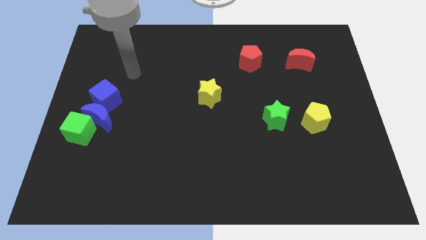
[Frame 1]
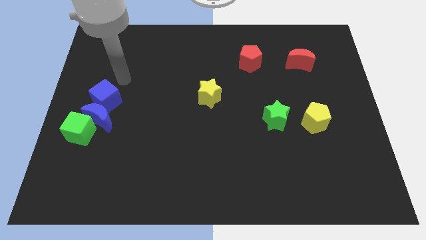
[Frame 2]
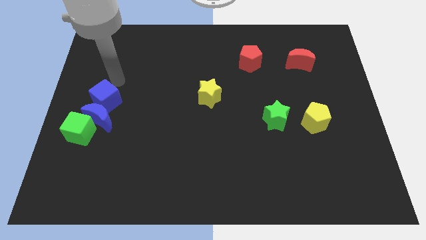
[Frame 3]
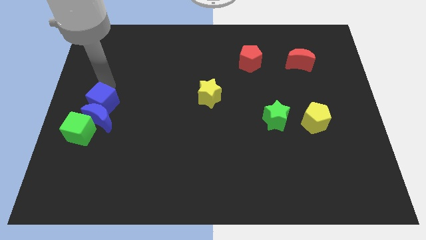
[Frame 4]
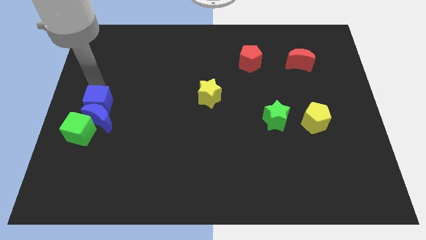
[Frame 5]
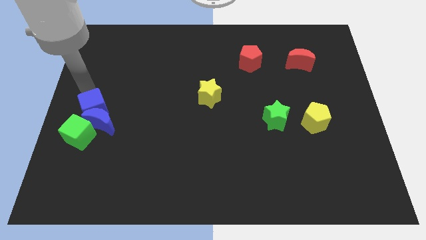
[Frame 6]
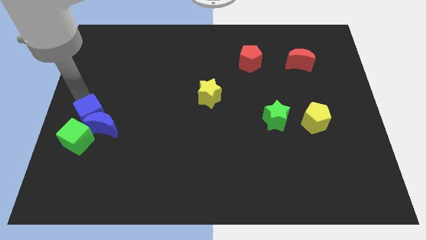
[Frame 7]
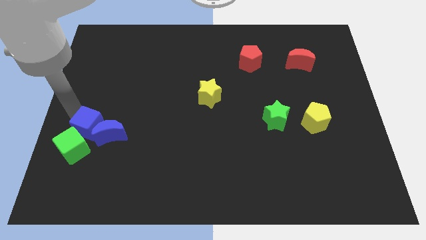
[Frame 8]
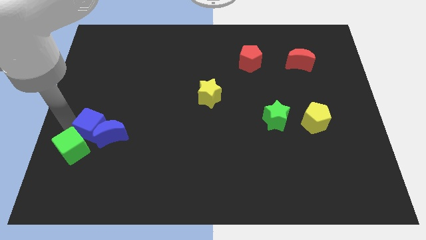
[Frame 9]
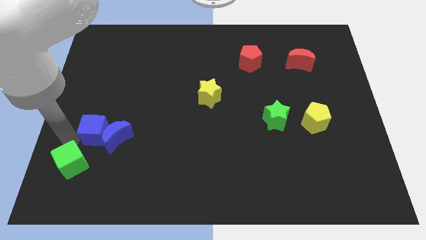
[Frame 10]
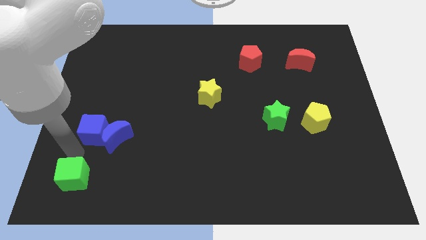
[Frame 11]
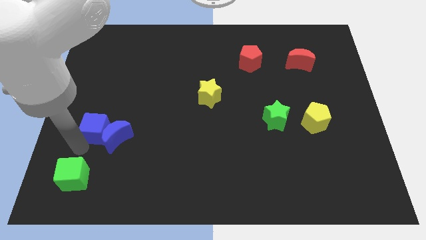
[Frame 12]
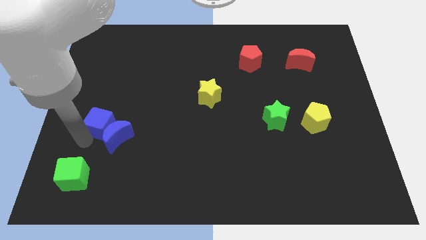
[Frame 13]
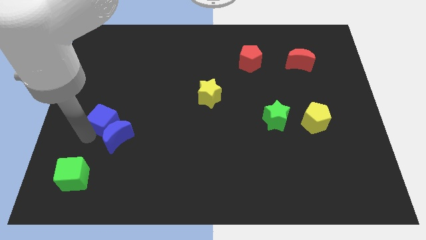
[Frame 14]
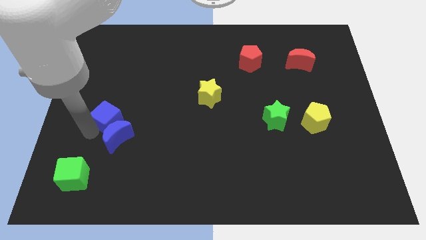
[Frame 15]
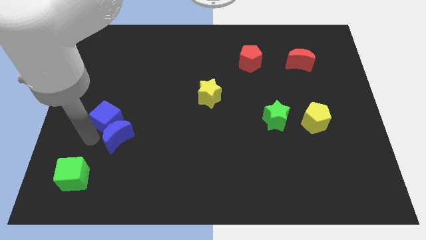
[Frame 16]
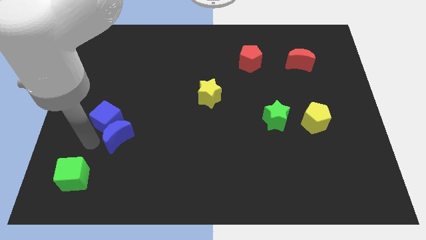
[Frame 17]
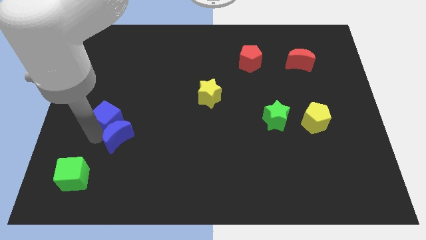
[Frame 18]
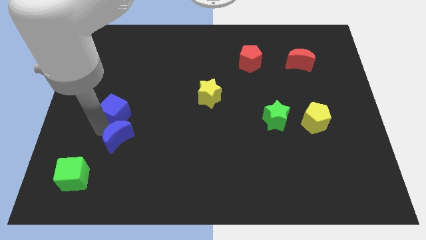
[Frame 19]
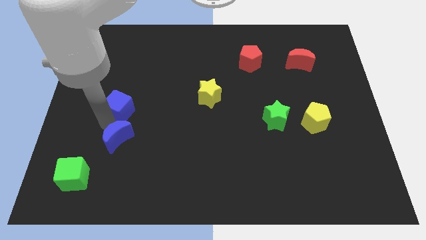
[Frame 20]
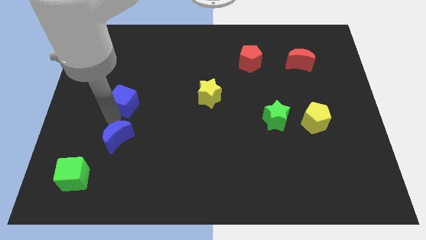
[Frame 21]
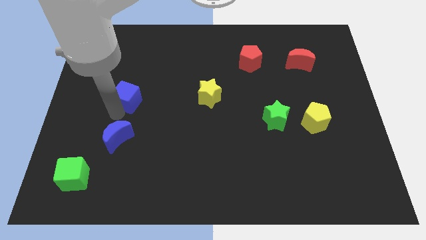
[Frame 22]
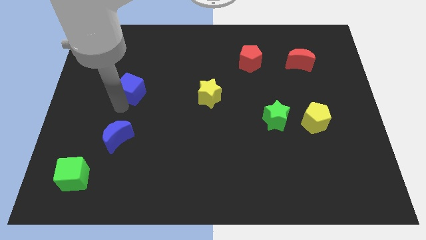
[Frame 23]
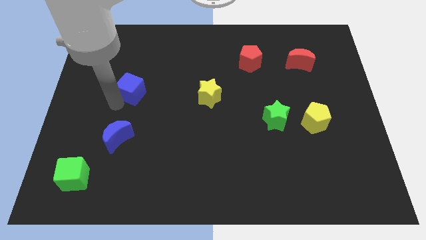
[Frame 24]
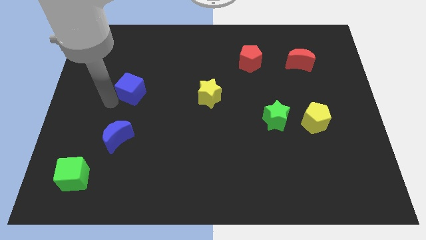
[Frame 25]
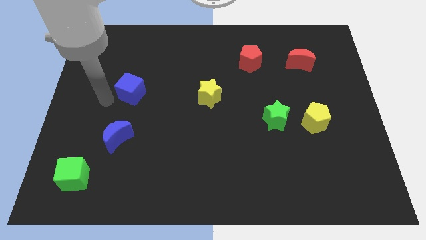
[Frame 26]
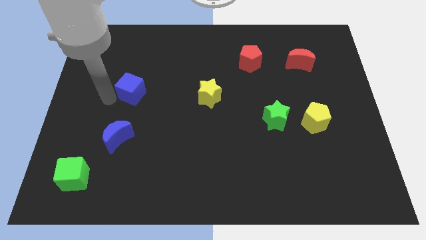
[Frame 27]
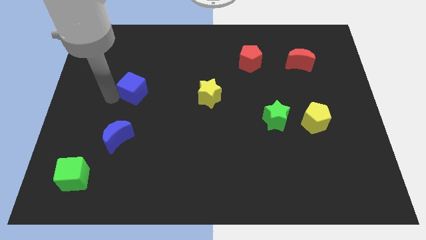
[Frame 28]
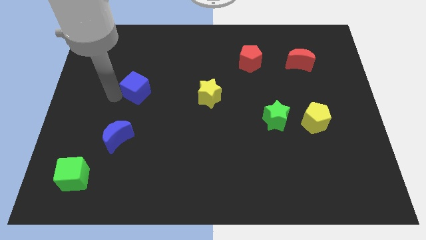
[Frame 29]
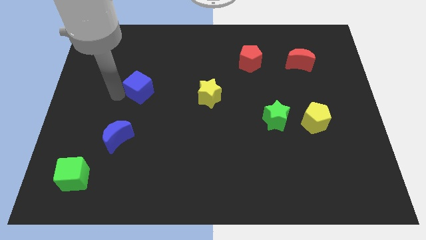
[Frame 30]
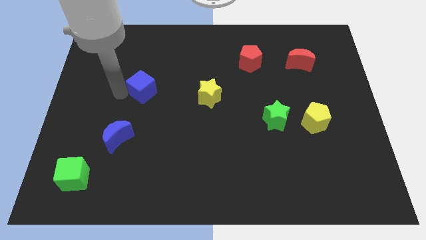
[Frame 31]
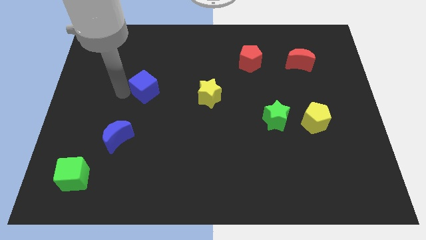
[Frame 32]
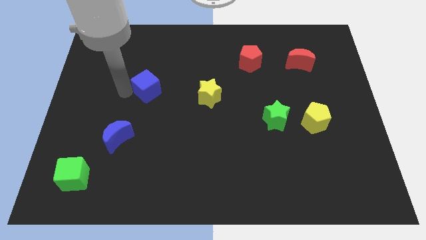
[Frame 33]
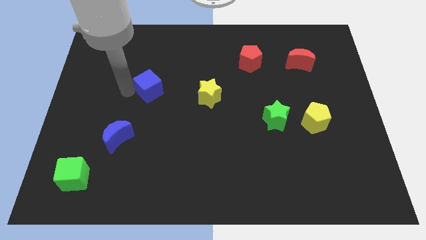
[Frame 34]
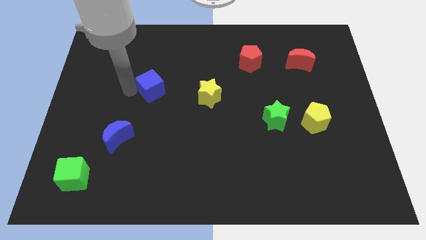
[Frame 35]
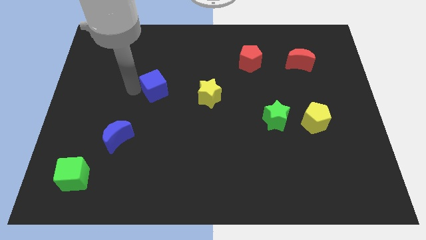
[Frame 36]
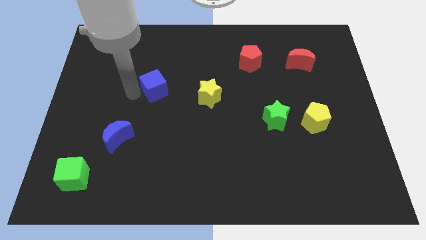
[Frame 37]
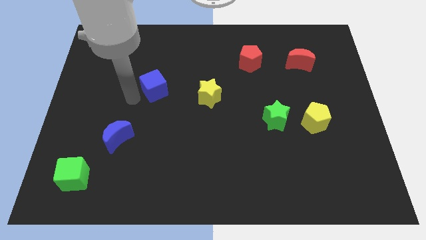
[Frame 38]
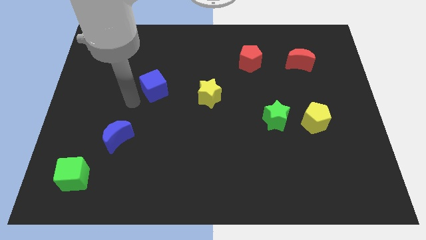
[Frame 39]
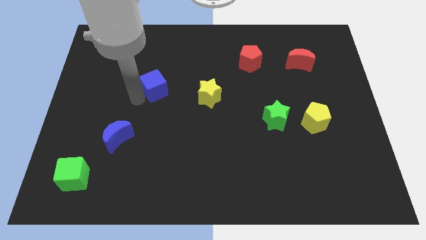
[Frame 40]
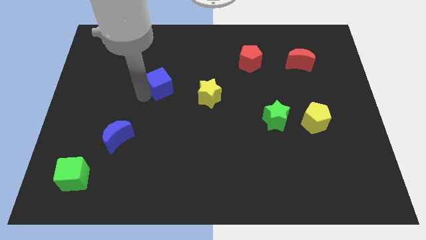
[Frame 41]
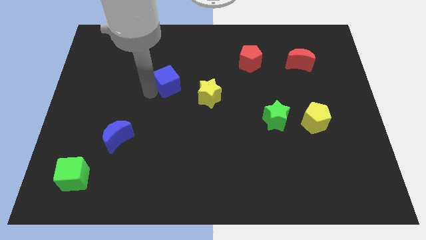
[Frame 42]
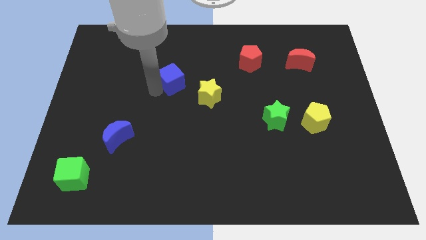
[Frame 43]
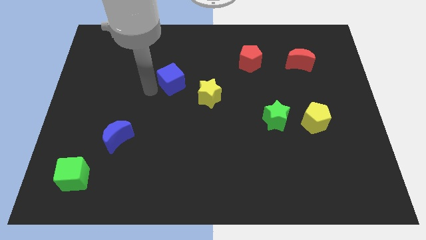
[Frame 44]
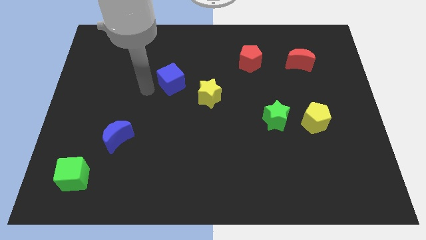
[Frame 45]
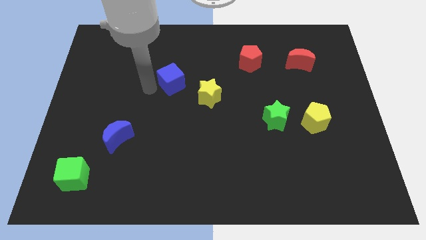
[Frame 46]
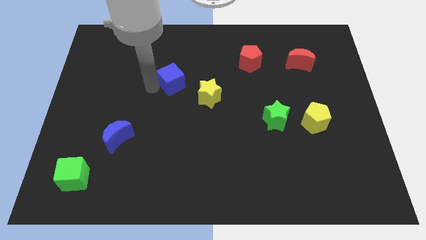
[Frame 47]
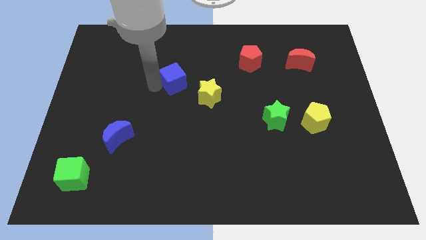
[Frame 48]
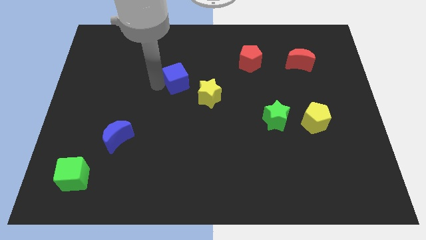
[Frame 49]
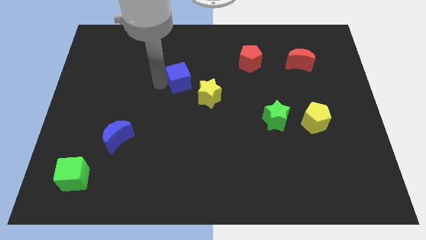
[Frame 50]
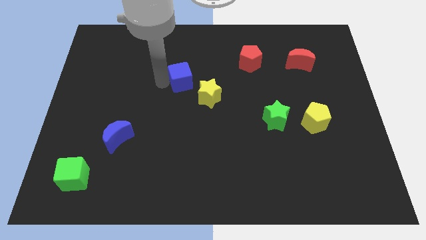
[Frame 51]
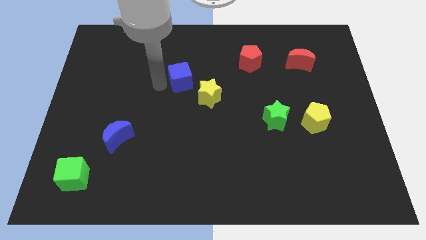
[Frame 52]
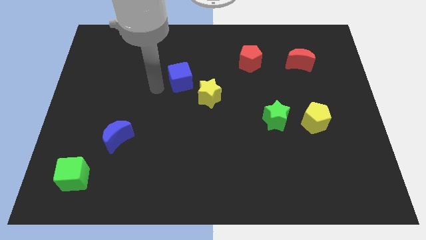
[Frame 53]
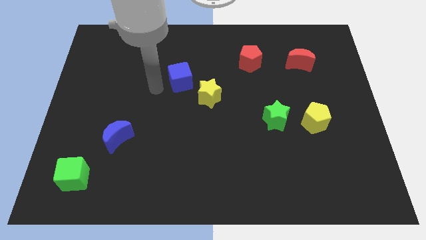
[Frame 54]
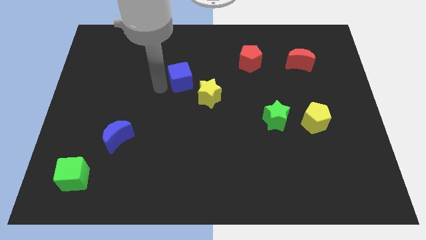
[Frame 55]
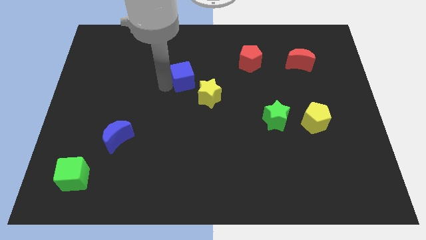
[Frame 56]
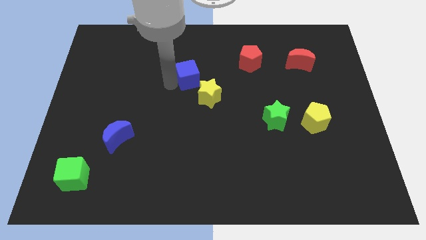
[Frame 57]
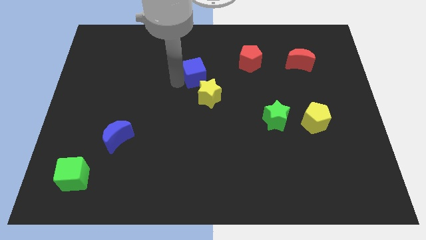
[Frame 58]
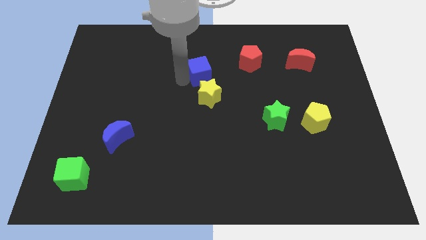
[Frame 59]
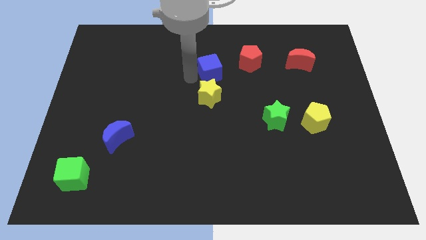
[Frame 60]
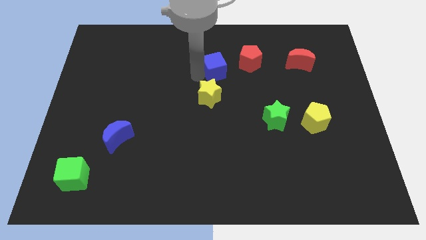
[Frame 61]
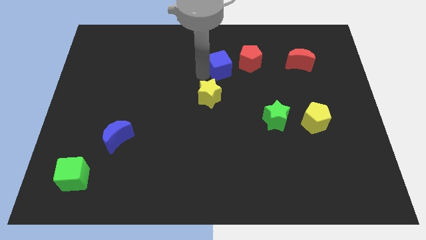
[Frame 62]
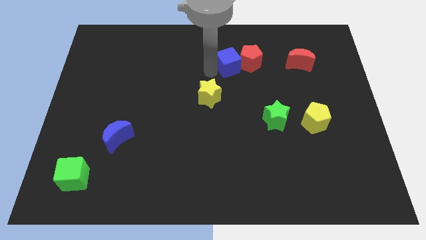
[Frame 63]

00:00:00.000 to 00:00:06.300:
put the blue cube next to the red pentagon

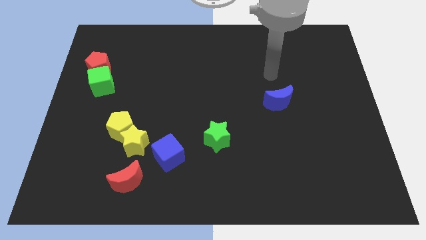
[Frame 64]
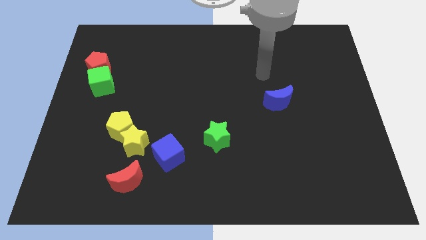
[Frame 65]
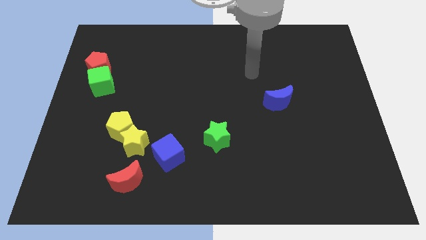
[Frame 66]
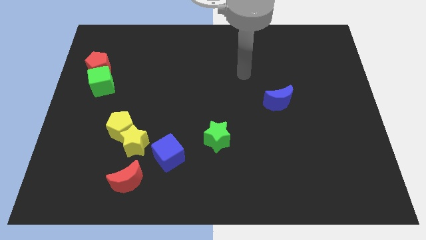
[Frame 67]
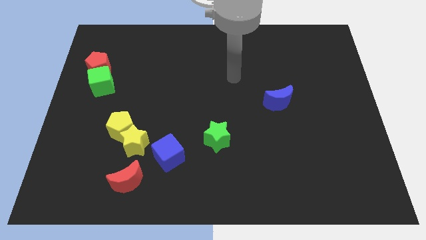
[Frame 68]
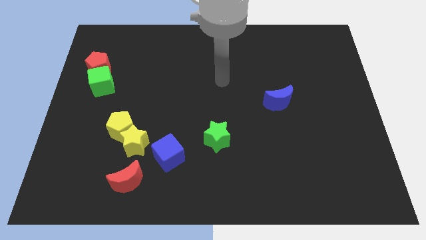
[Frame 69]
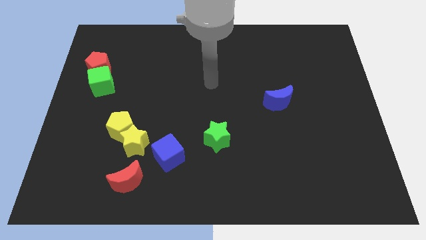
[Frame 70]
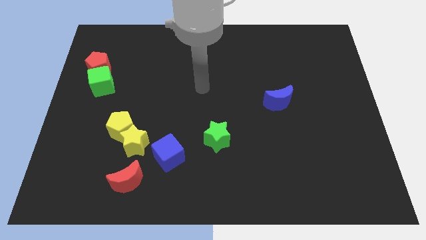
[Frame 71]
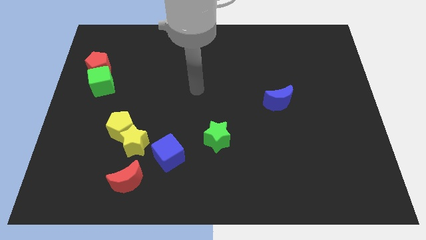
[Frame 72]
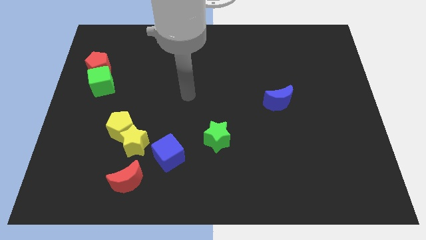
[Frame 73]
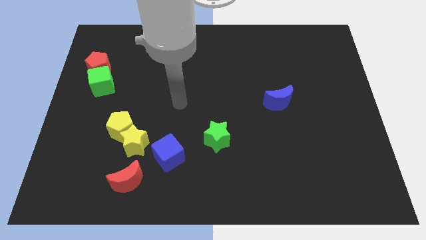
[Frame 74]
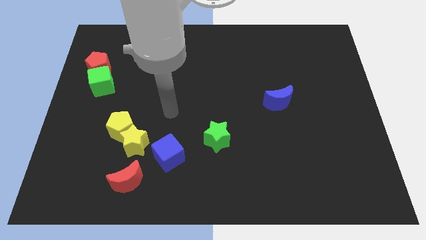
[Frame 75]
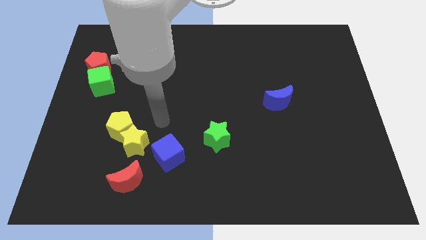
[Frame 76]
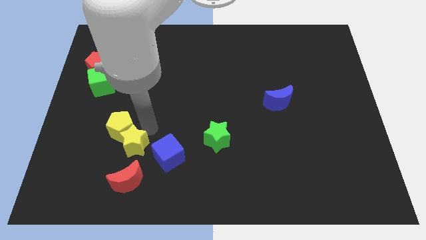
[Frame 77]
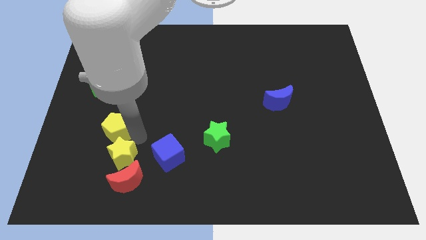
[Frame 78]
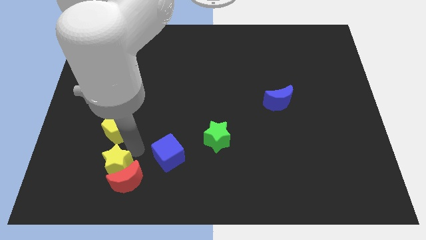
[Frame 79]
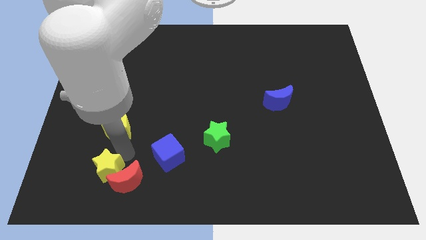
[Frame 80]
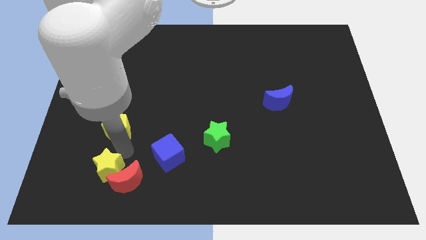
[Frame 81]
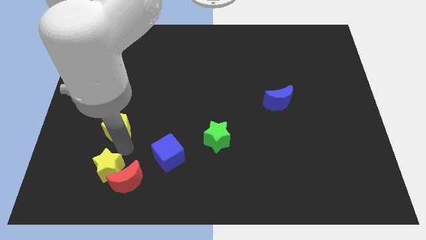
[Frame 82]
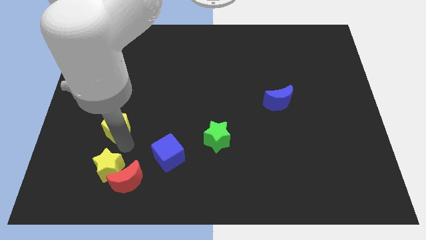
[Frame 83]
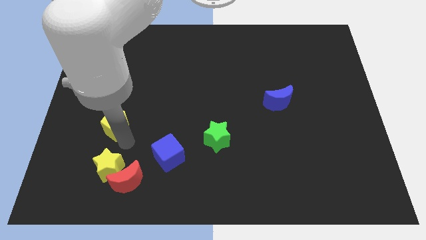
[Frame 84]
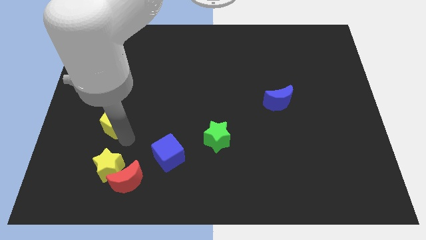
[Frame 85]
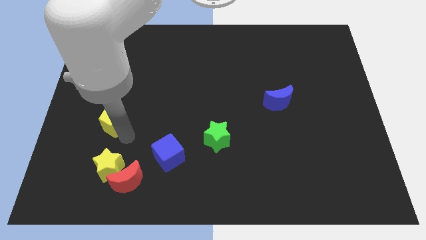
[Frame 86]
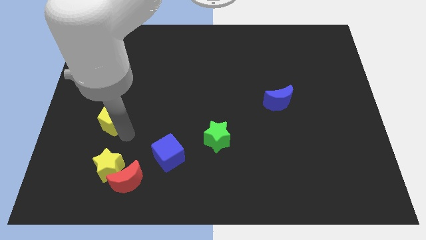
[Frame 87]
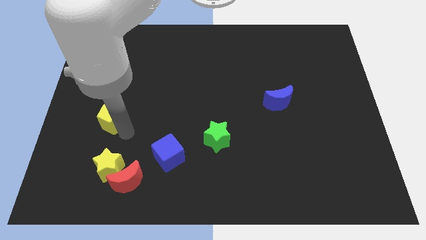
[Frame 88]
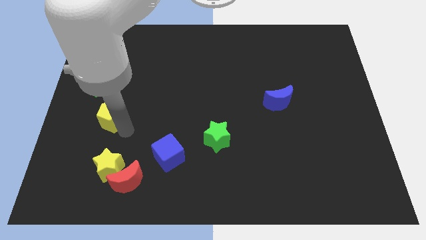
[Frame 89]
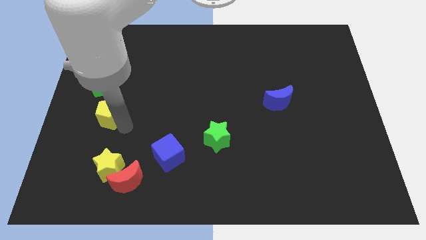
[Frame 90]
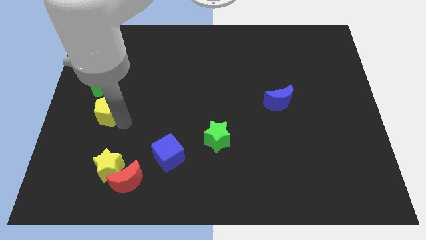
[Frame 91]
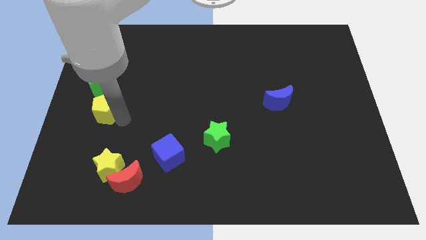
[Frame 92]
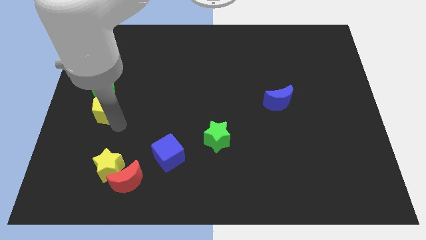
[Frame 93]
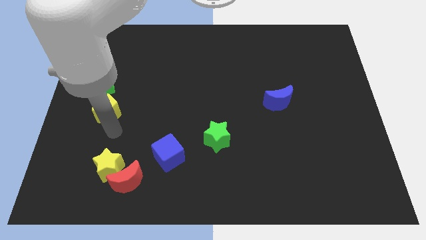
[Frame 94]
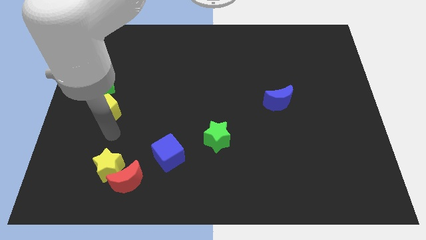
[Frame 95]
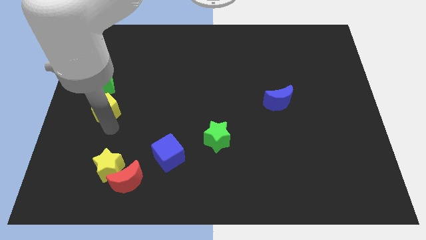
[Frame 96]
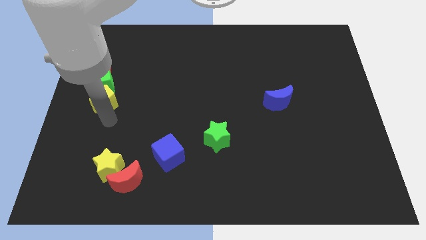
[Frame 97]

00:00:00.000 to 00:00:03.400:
put the yellow pentagon close to the green cube
